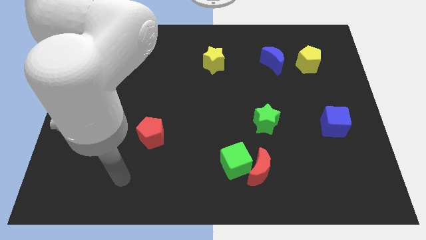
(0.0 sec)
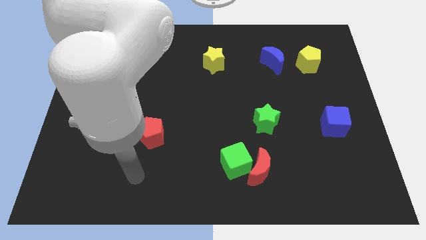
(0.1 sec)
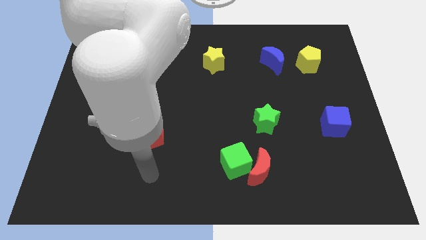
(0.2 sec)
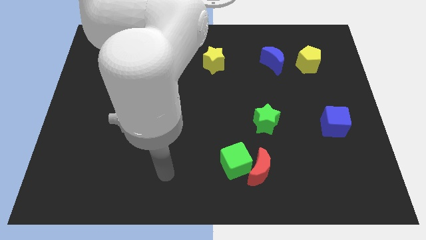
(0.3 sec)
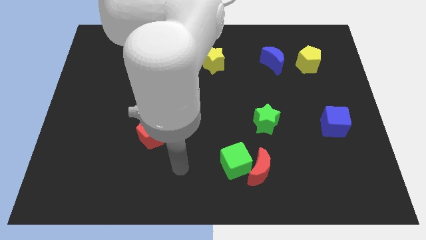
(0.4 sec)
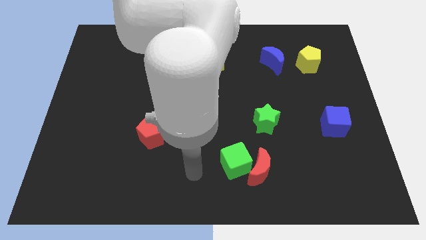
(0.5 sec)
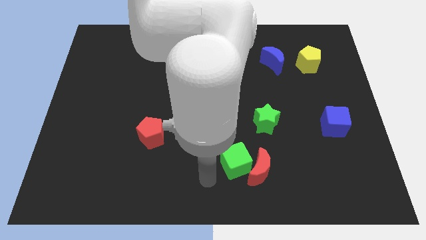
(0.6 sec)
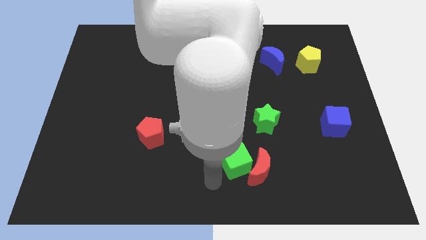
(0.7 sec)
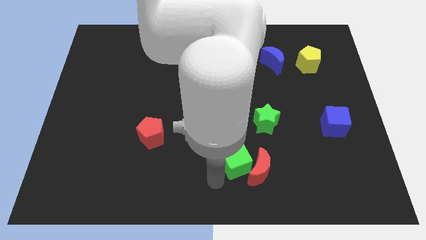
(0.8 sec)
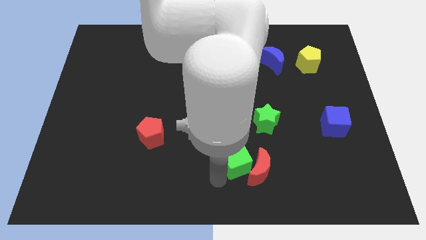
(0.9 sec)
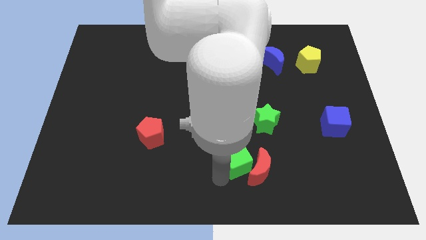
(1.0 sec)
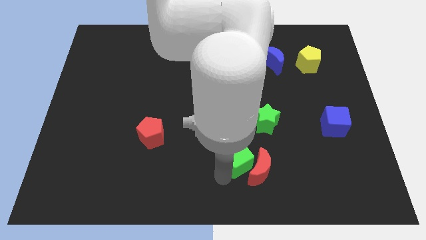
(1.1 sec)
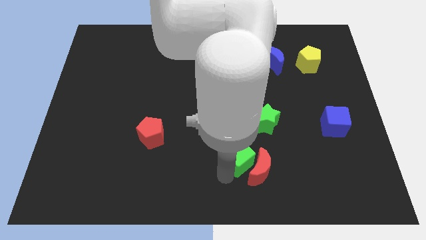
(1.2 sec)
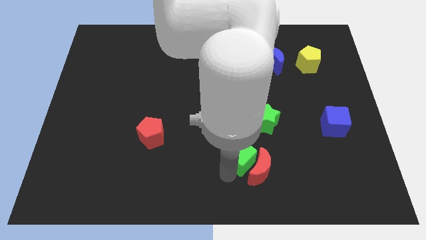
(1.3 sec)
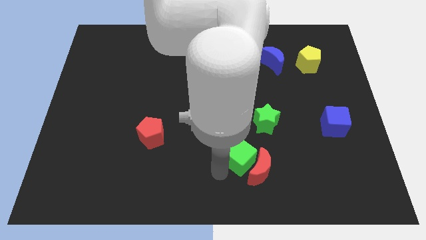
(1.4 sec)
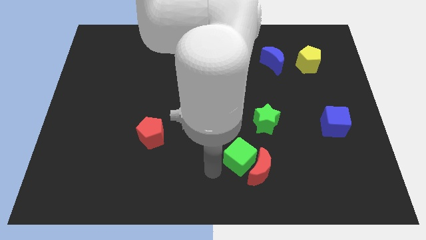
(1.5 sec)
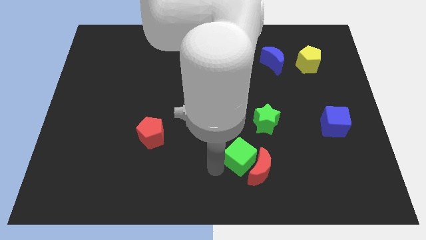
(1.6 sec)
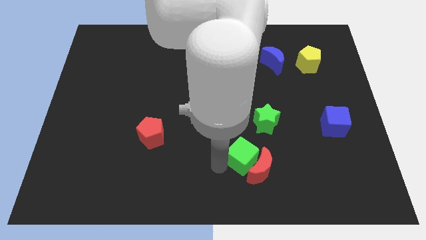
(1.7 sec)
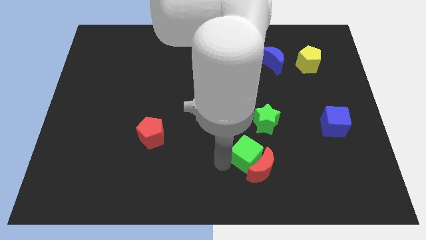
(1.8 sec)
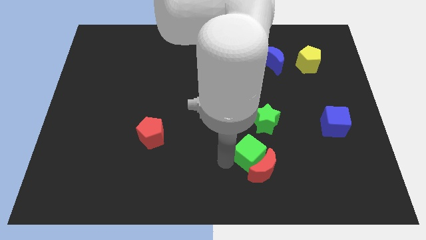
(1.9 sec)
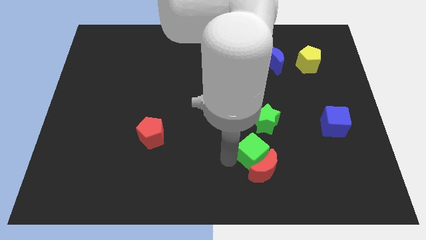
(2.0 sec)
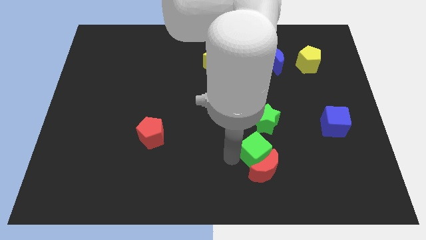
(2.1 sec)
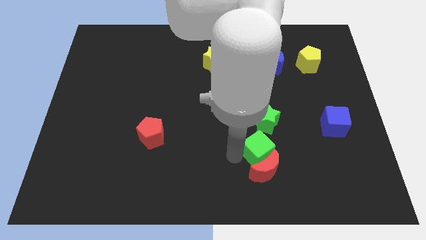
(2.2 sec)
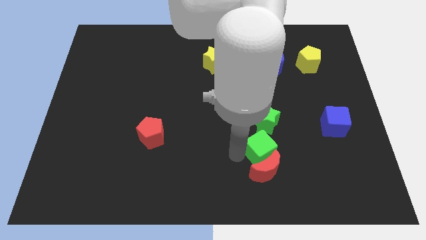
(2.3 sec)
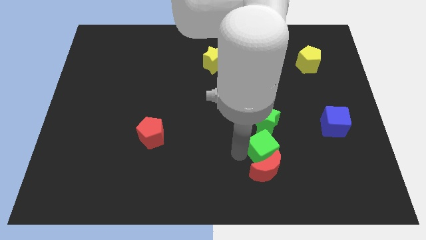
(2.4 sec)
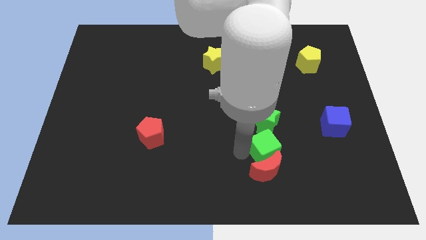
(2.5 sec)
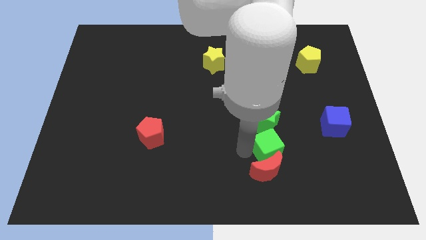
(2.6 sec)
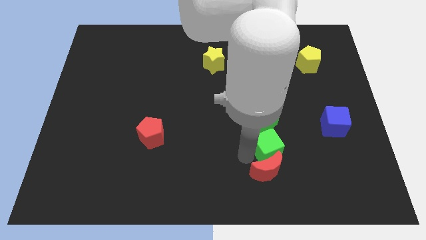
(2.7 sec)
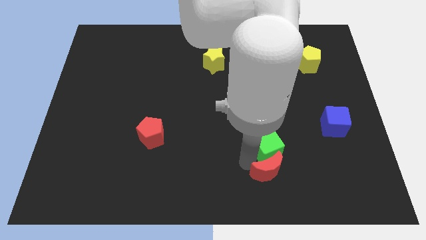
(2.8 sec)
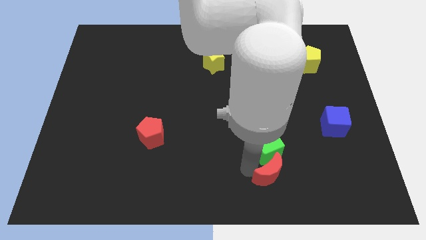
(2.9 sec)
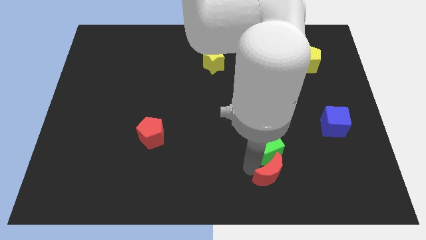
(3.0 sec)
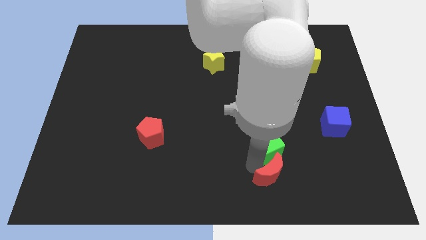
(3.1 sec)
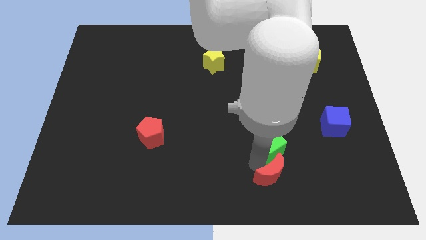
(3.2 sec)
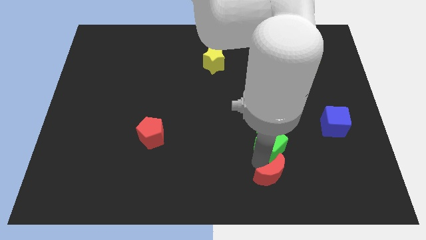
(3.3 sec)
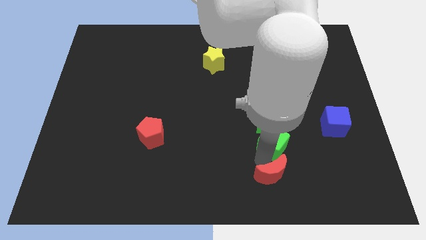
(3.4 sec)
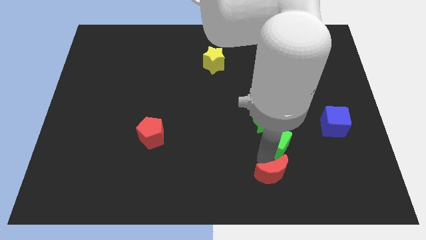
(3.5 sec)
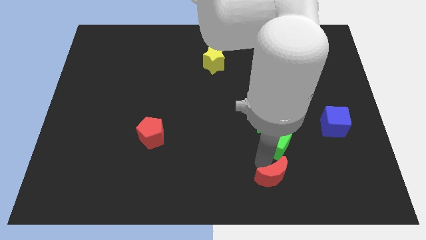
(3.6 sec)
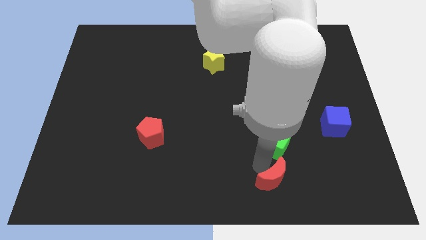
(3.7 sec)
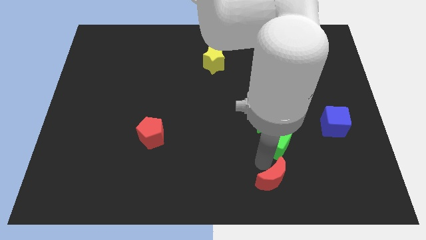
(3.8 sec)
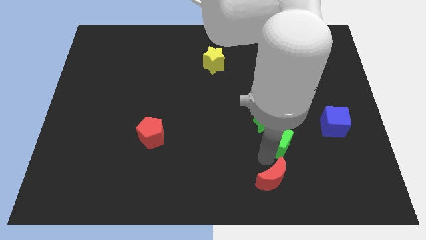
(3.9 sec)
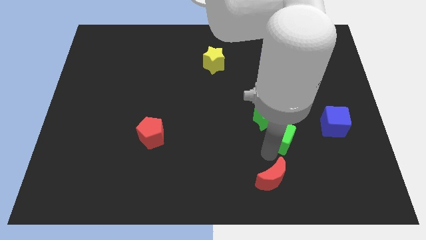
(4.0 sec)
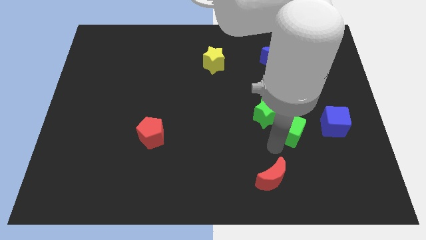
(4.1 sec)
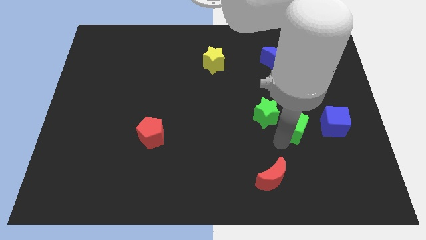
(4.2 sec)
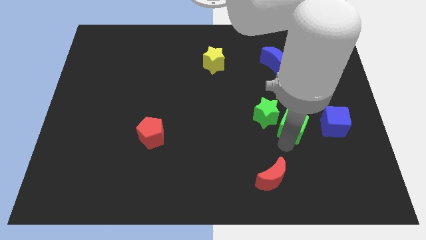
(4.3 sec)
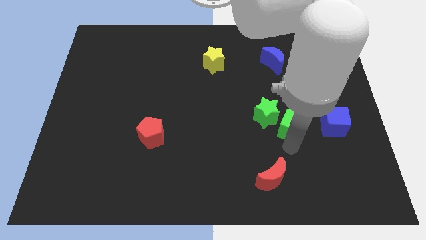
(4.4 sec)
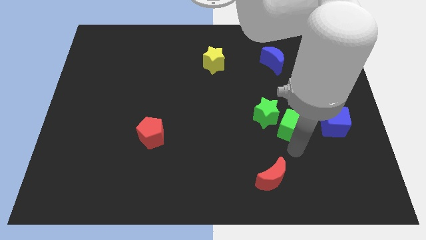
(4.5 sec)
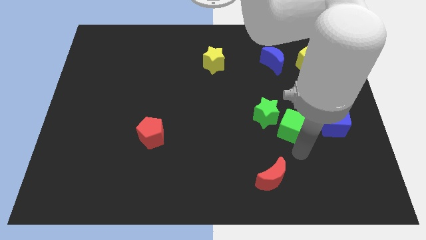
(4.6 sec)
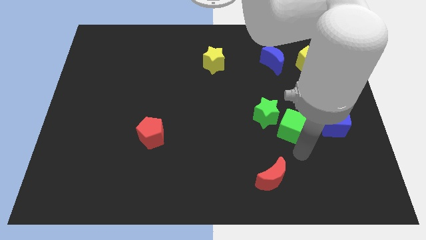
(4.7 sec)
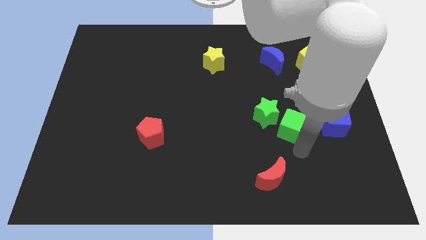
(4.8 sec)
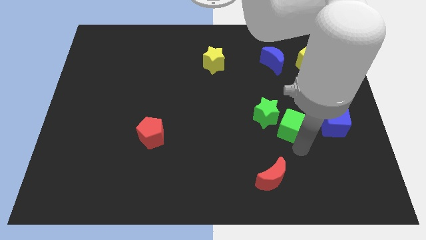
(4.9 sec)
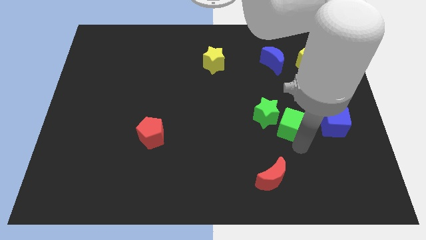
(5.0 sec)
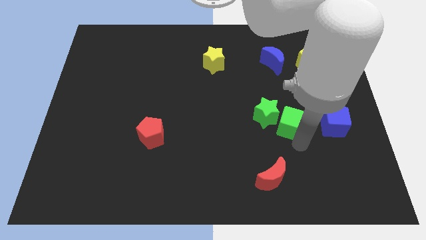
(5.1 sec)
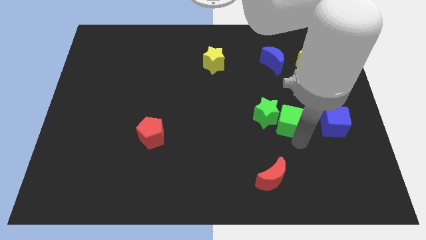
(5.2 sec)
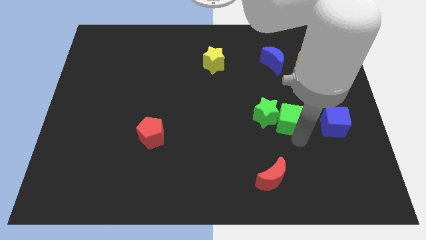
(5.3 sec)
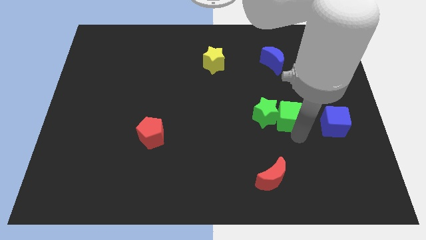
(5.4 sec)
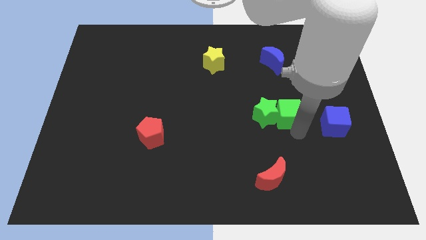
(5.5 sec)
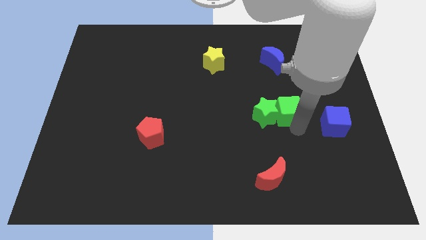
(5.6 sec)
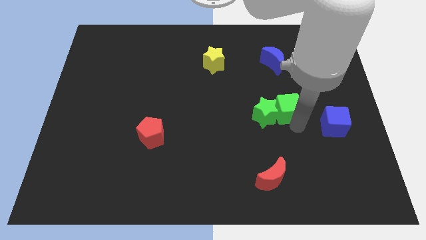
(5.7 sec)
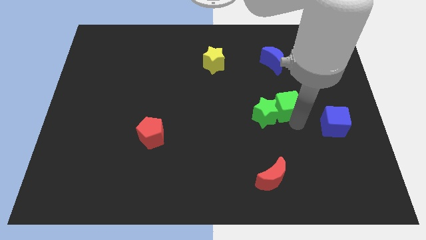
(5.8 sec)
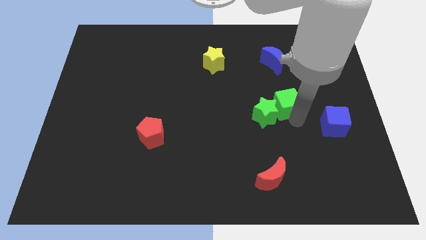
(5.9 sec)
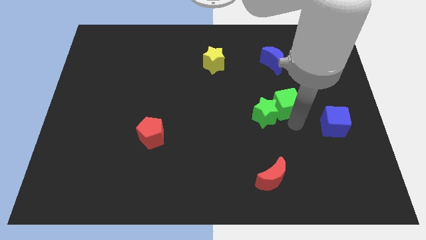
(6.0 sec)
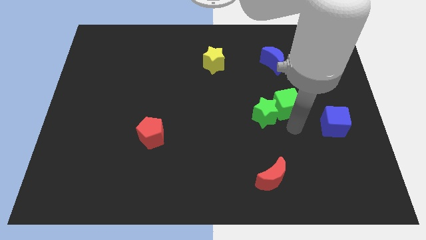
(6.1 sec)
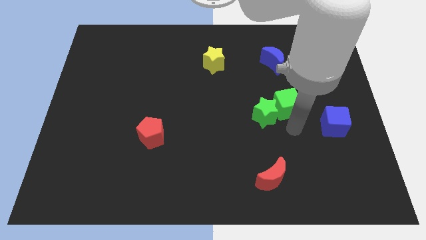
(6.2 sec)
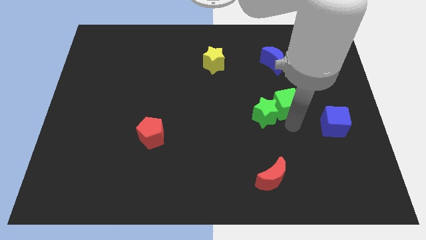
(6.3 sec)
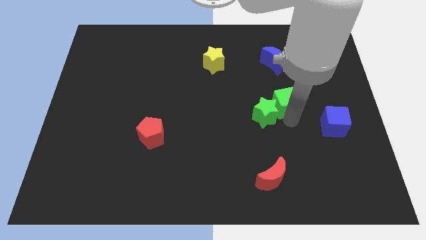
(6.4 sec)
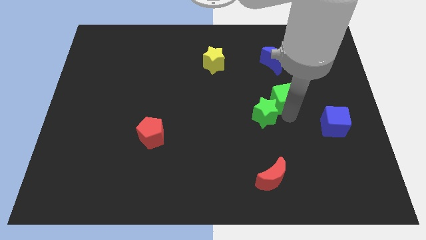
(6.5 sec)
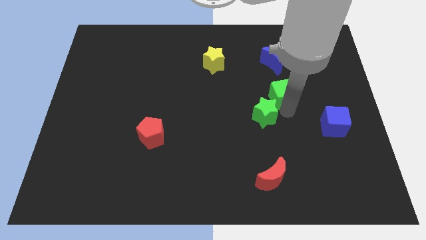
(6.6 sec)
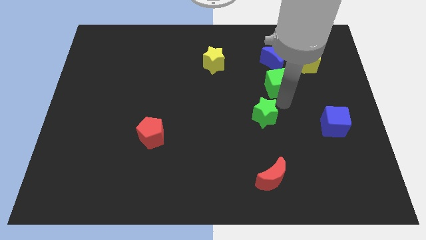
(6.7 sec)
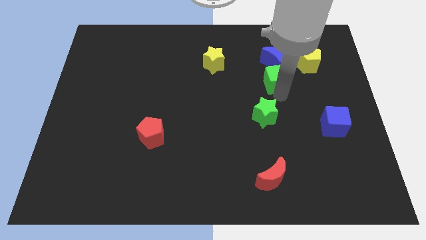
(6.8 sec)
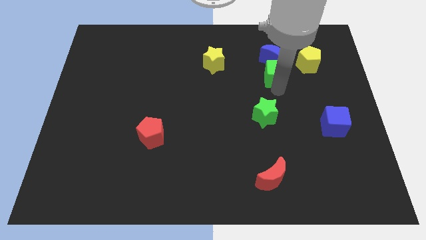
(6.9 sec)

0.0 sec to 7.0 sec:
push the green cube towards the blue moon

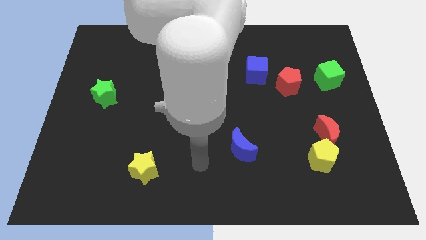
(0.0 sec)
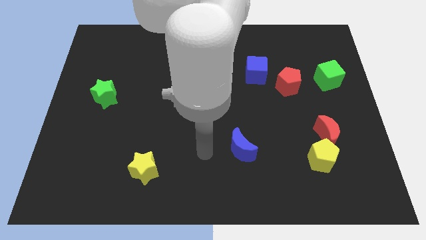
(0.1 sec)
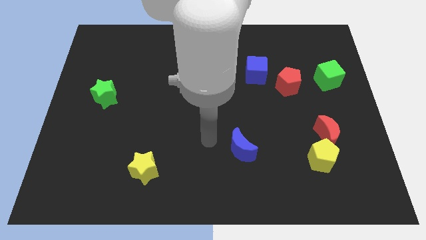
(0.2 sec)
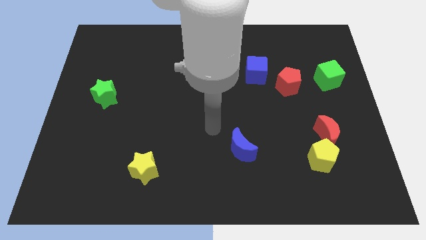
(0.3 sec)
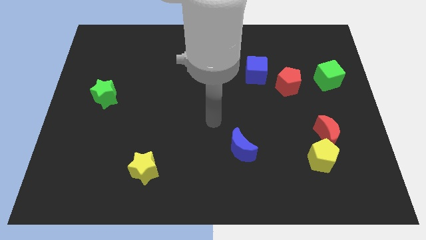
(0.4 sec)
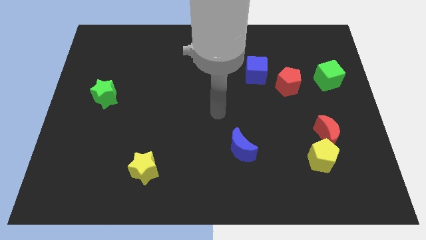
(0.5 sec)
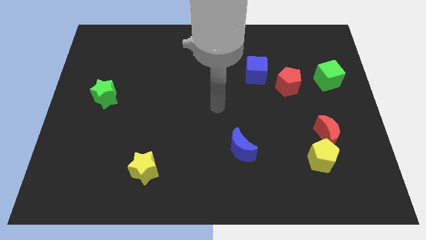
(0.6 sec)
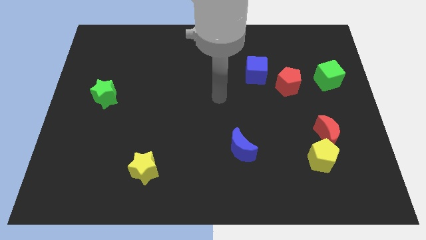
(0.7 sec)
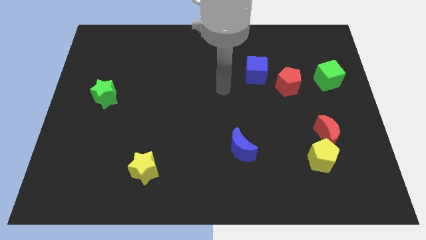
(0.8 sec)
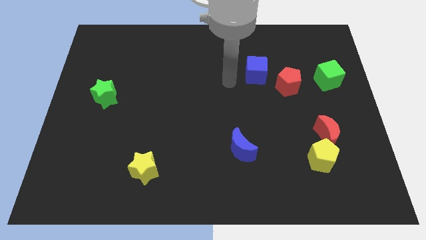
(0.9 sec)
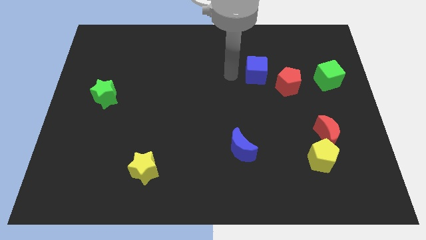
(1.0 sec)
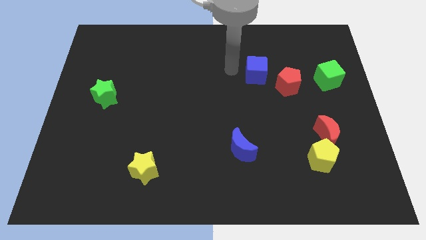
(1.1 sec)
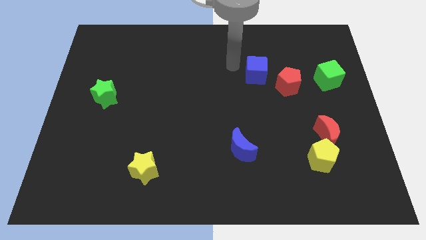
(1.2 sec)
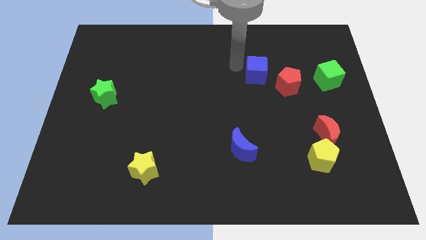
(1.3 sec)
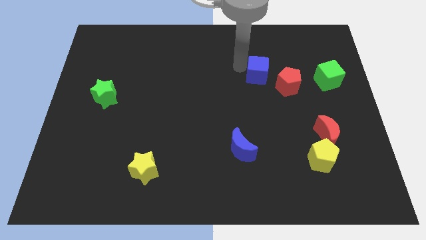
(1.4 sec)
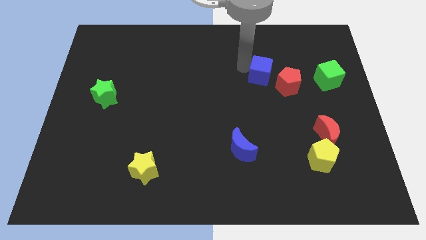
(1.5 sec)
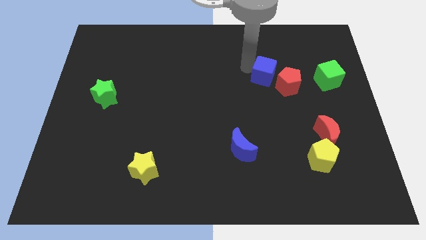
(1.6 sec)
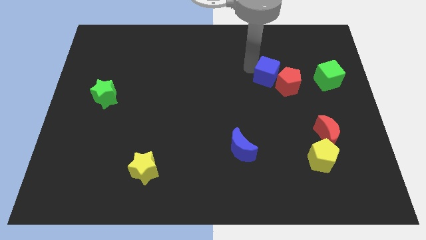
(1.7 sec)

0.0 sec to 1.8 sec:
move the blue cube towards the red pentagon
